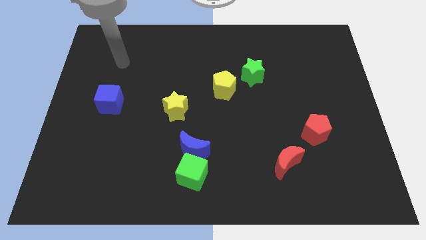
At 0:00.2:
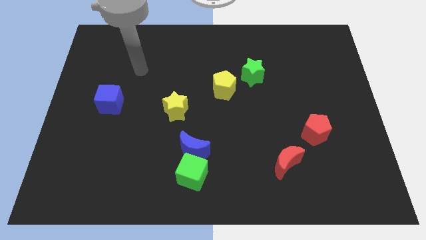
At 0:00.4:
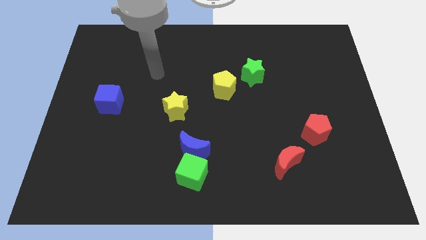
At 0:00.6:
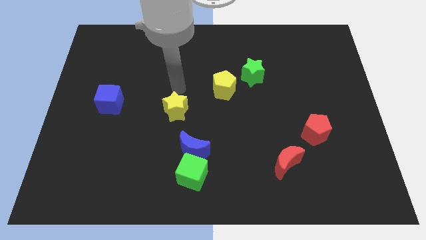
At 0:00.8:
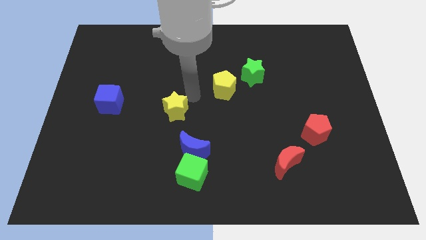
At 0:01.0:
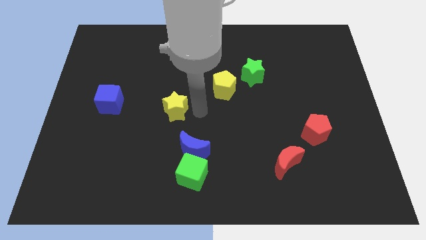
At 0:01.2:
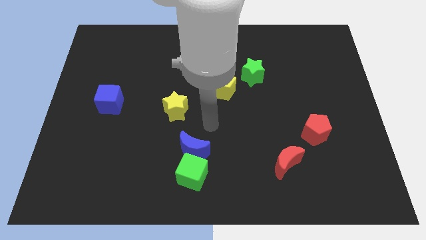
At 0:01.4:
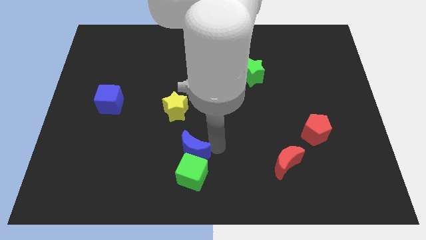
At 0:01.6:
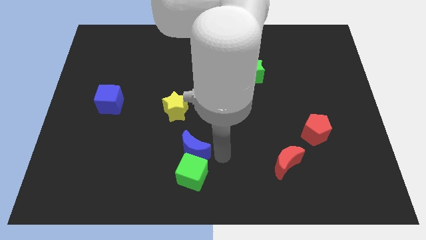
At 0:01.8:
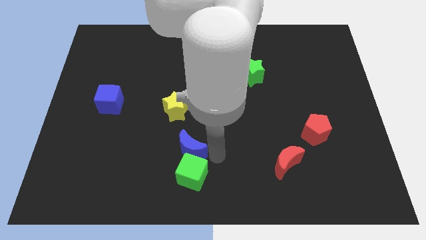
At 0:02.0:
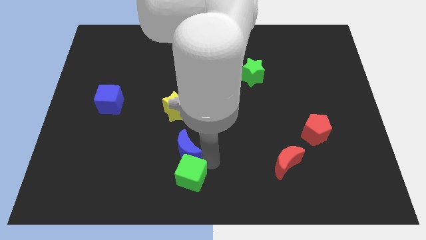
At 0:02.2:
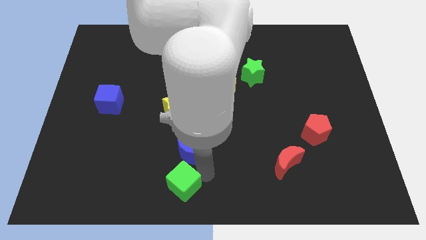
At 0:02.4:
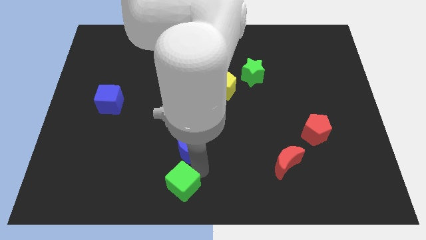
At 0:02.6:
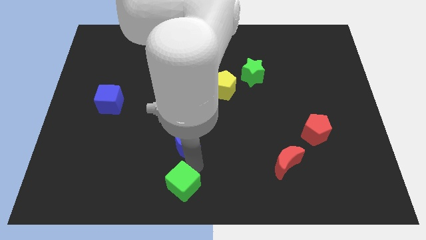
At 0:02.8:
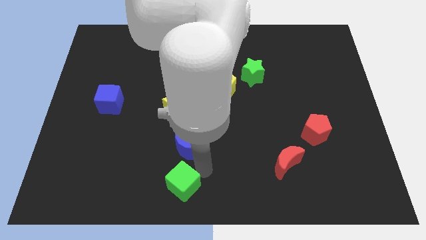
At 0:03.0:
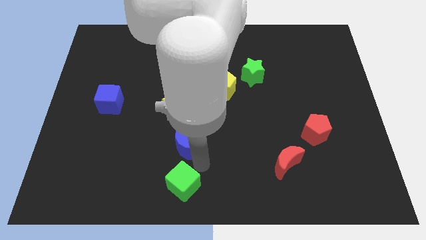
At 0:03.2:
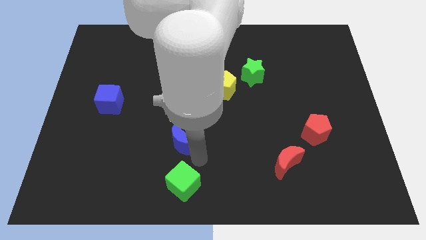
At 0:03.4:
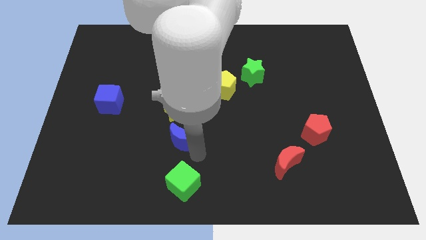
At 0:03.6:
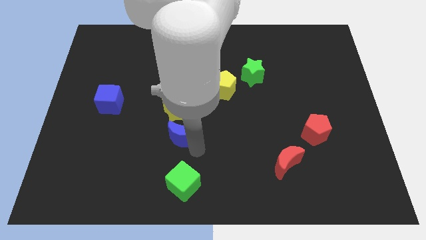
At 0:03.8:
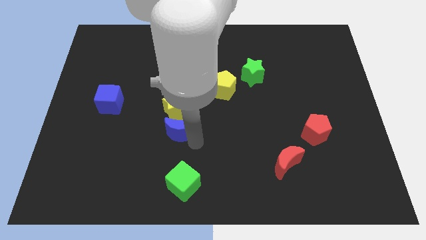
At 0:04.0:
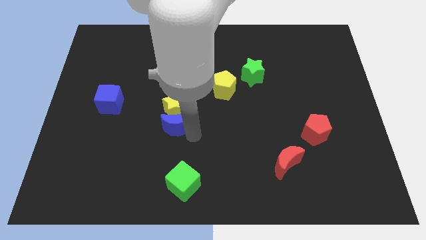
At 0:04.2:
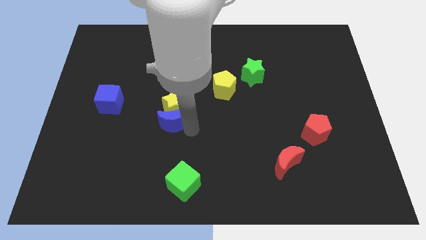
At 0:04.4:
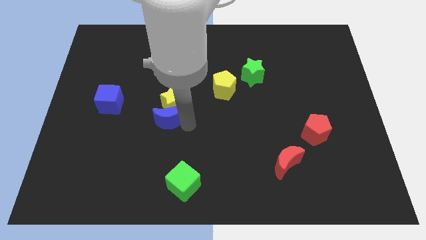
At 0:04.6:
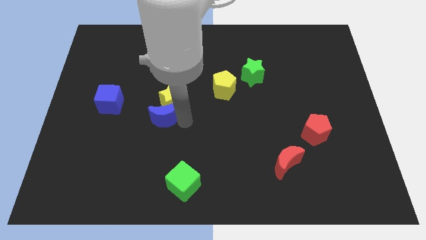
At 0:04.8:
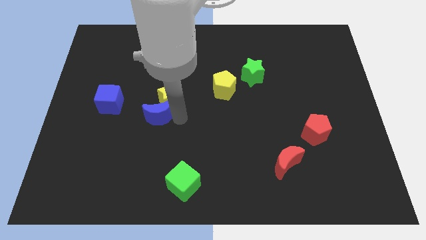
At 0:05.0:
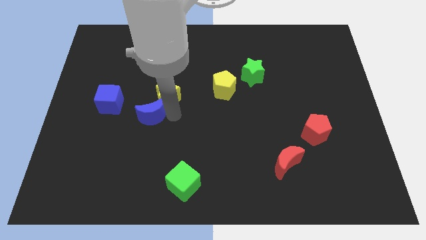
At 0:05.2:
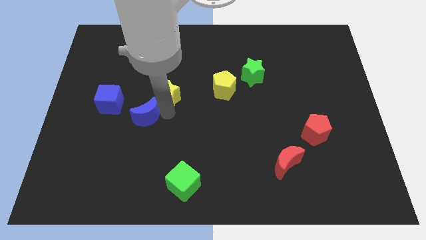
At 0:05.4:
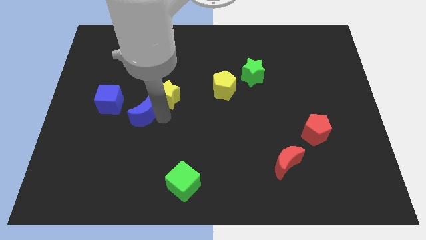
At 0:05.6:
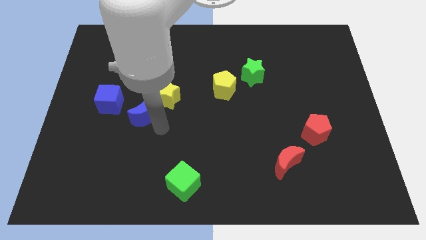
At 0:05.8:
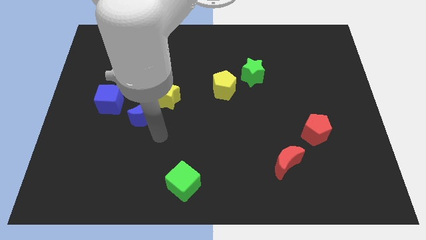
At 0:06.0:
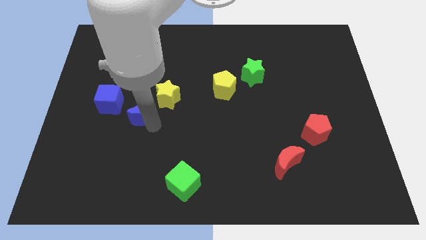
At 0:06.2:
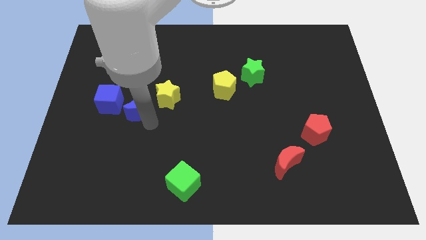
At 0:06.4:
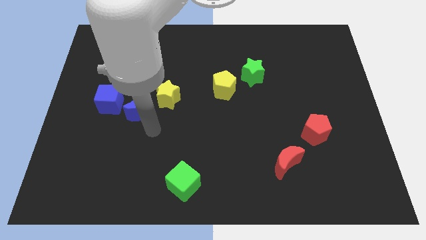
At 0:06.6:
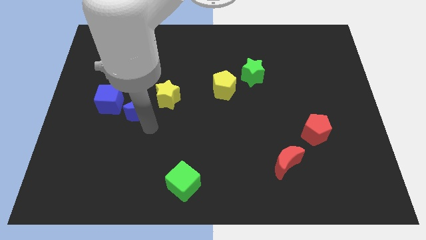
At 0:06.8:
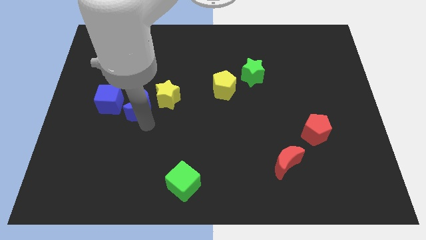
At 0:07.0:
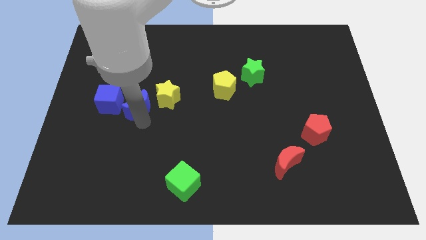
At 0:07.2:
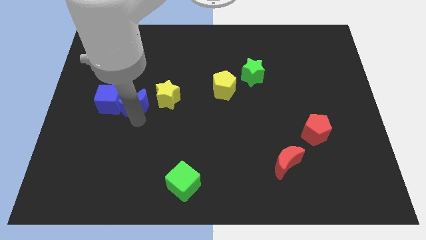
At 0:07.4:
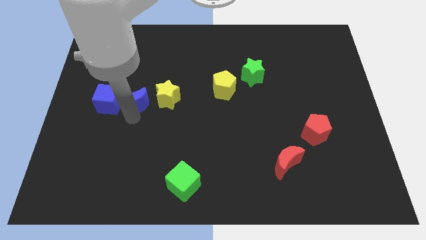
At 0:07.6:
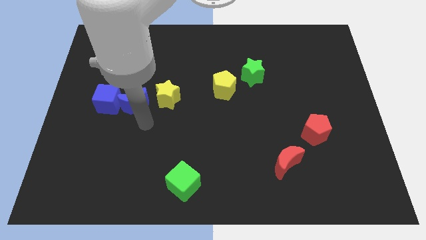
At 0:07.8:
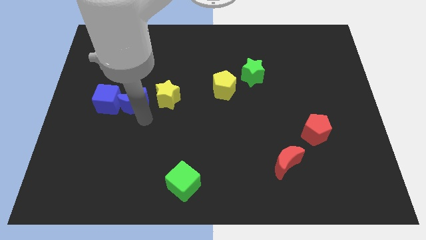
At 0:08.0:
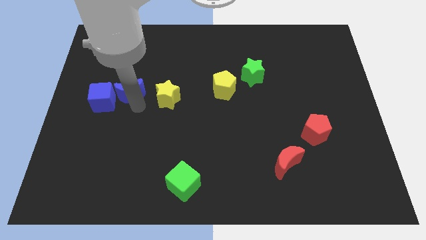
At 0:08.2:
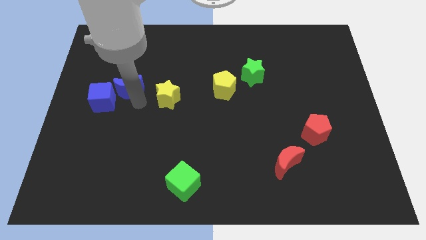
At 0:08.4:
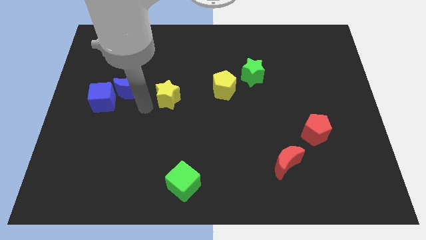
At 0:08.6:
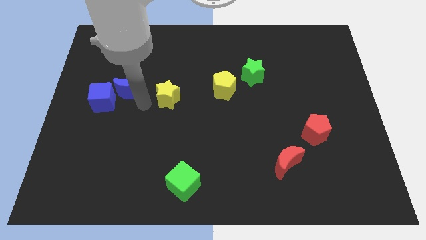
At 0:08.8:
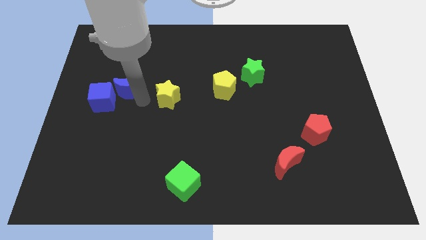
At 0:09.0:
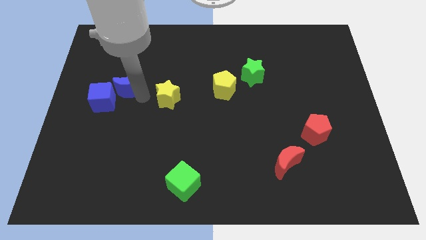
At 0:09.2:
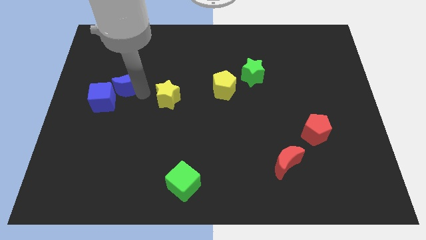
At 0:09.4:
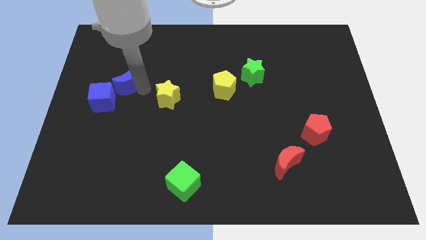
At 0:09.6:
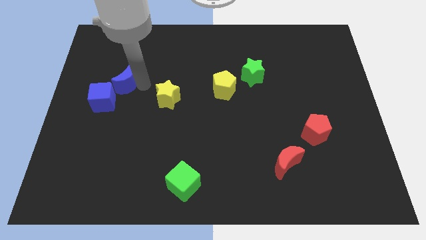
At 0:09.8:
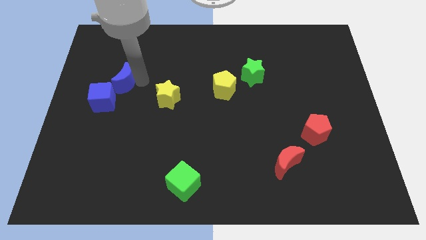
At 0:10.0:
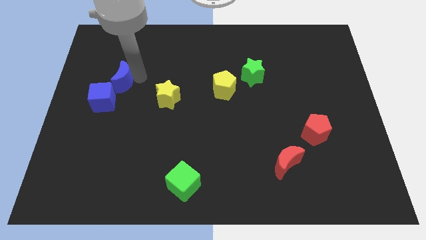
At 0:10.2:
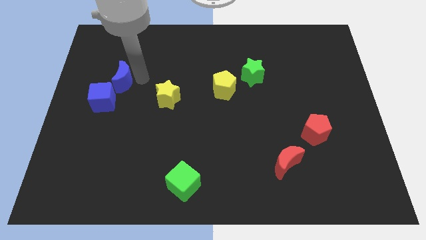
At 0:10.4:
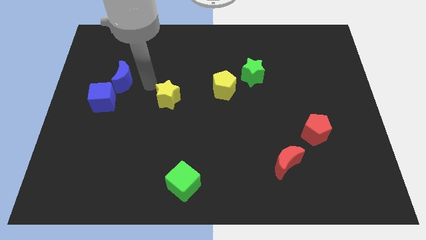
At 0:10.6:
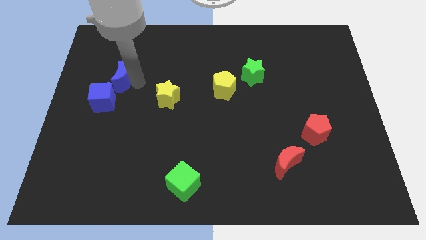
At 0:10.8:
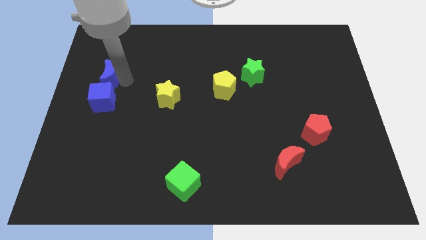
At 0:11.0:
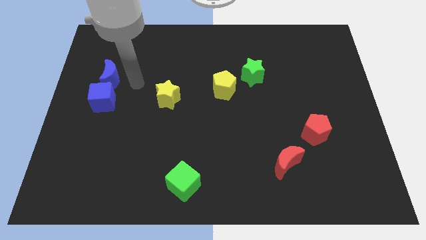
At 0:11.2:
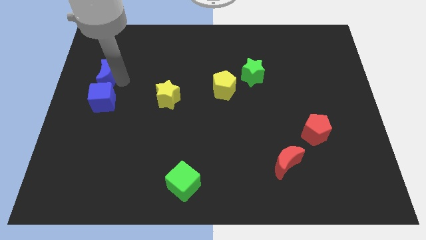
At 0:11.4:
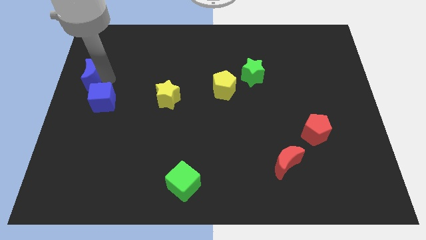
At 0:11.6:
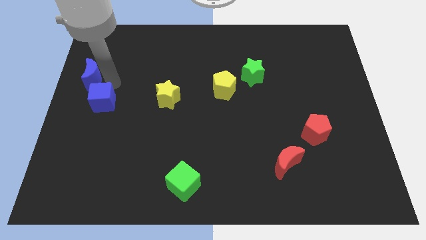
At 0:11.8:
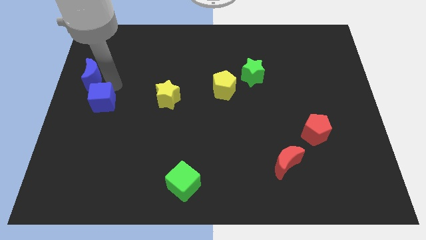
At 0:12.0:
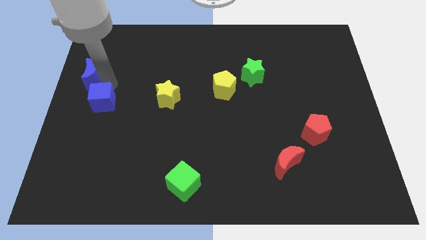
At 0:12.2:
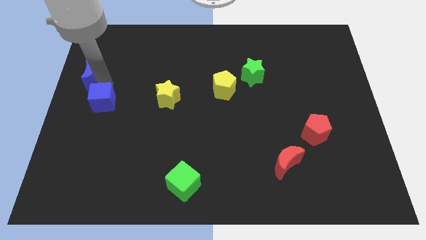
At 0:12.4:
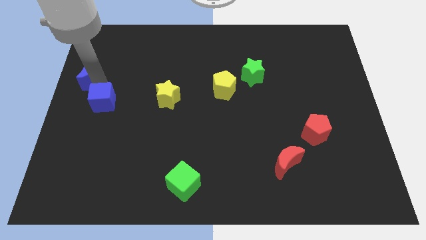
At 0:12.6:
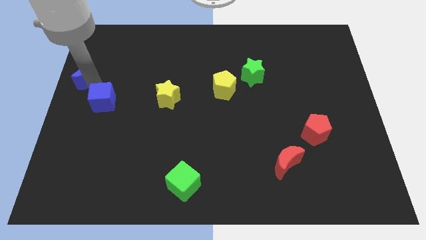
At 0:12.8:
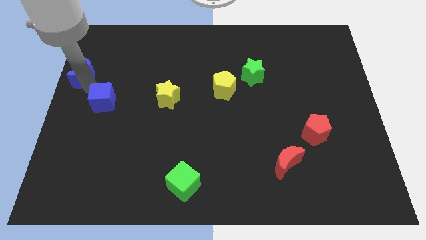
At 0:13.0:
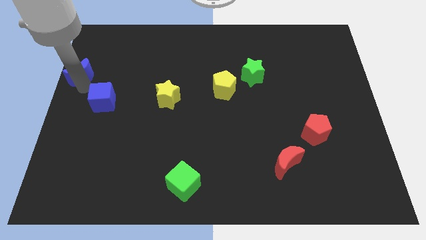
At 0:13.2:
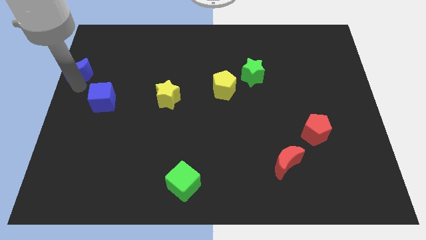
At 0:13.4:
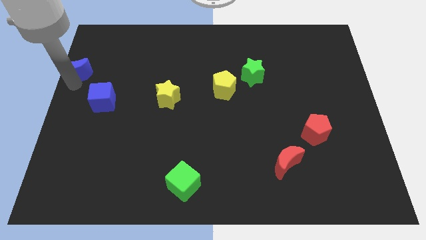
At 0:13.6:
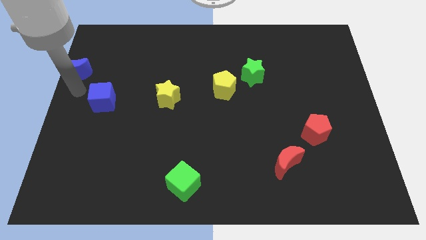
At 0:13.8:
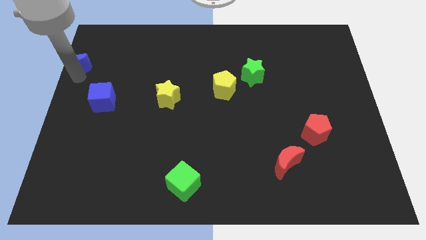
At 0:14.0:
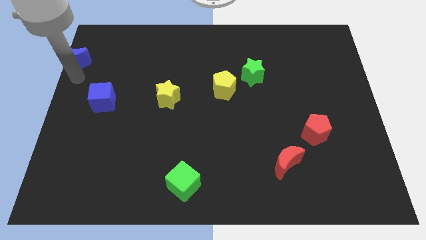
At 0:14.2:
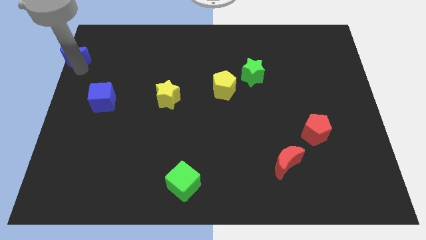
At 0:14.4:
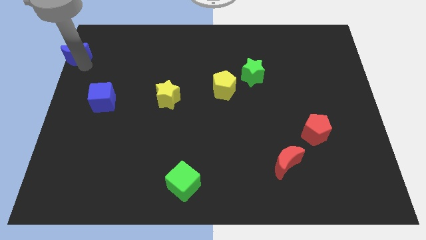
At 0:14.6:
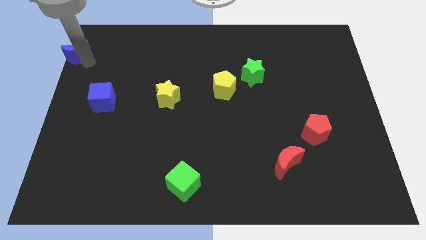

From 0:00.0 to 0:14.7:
move the blue moon to the upper left corner
